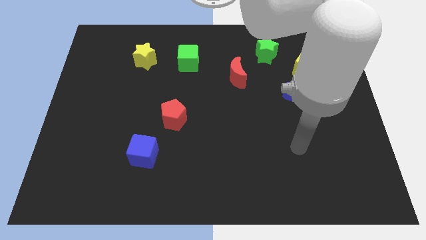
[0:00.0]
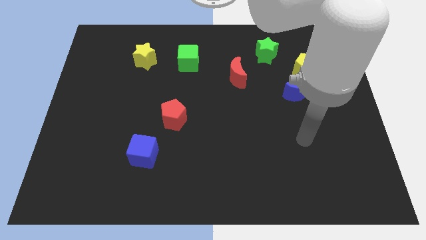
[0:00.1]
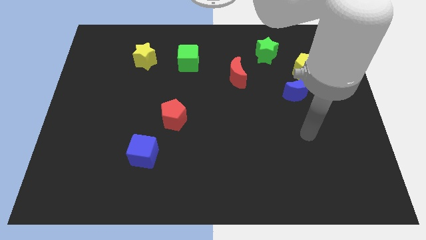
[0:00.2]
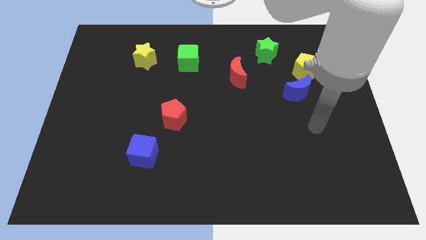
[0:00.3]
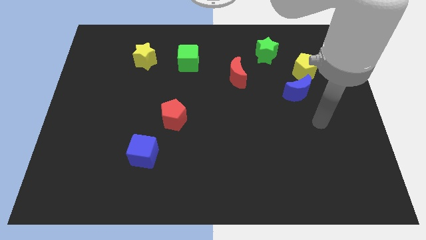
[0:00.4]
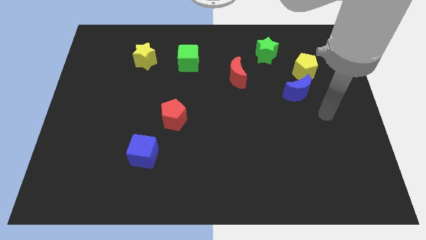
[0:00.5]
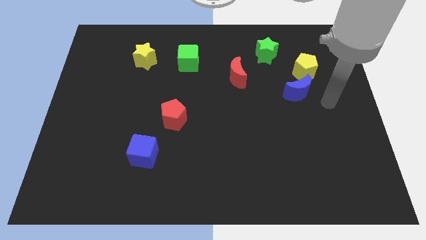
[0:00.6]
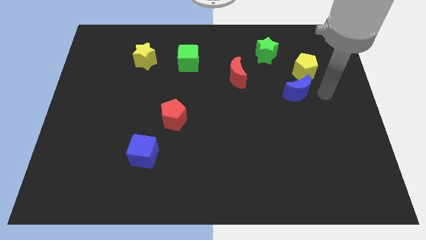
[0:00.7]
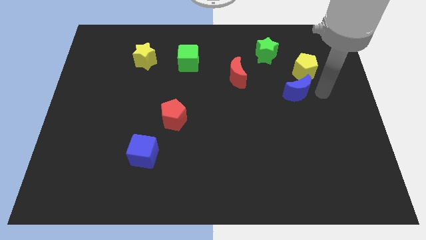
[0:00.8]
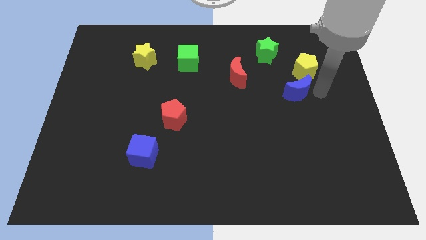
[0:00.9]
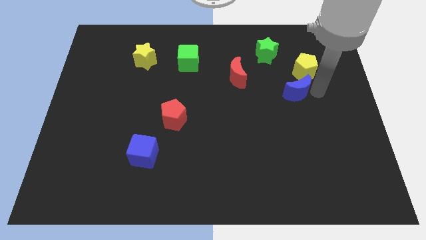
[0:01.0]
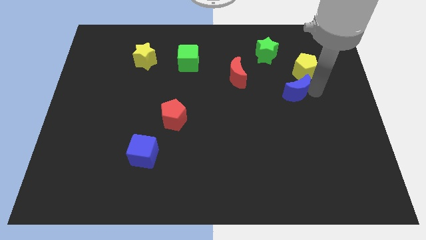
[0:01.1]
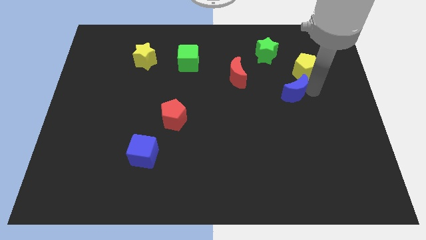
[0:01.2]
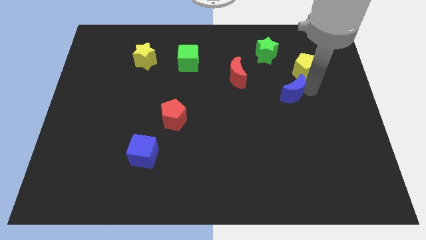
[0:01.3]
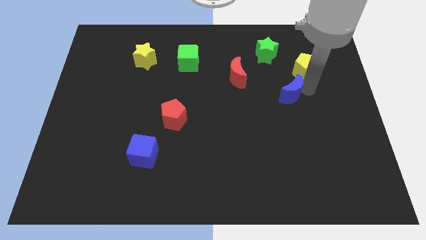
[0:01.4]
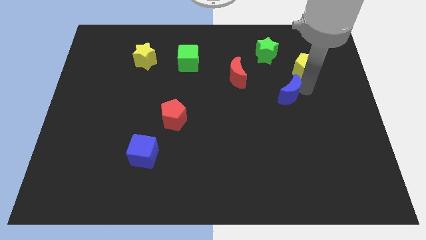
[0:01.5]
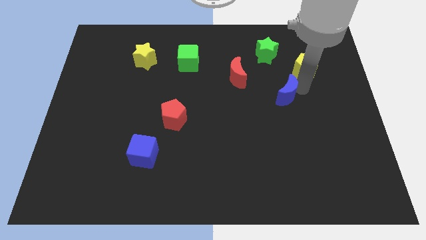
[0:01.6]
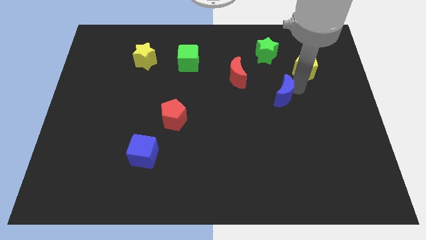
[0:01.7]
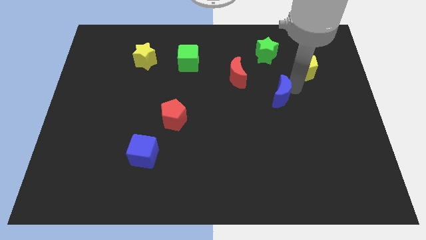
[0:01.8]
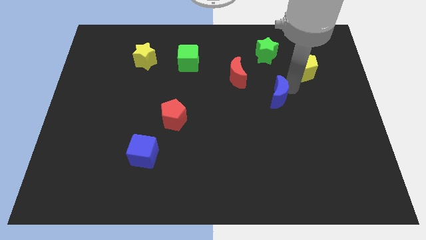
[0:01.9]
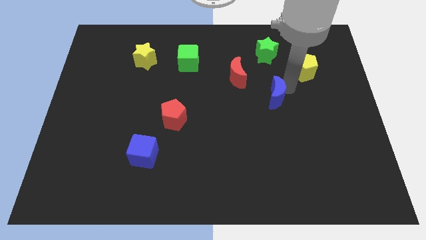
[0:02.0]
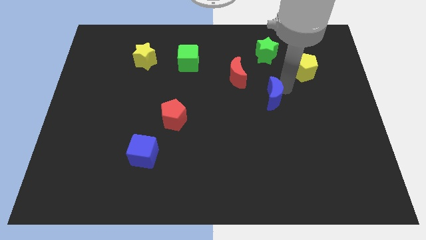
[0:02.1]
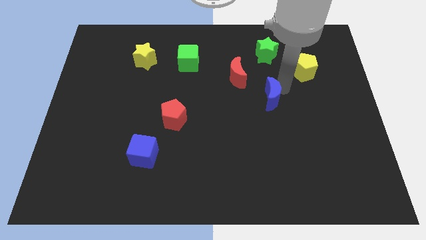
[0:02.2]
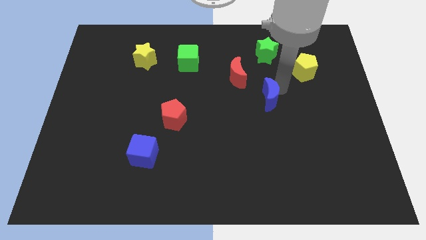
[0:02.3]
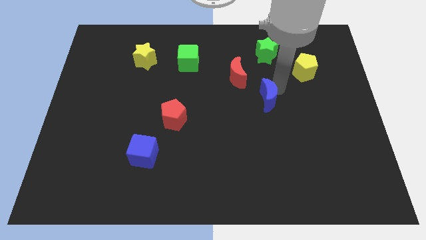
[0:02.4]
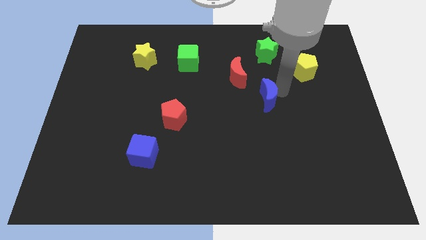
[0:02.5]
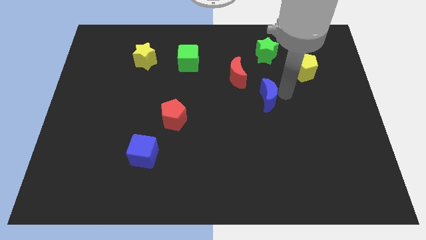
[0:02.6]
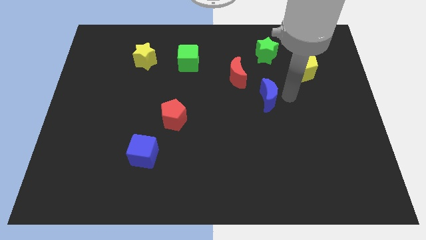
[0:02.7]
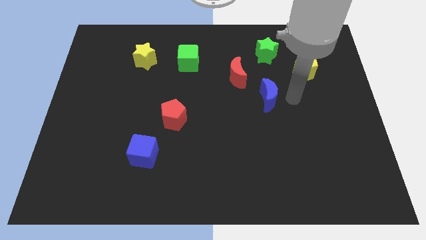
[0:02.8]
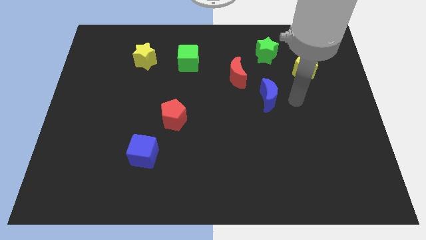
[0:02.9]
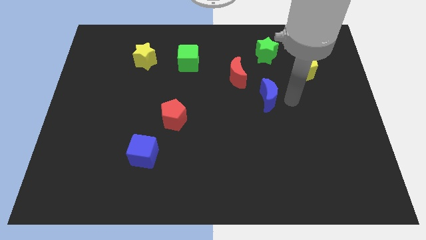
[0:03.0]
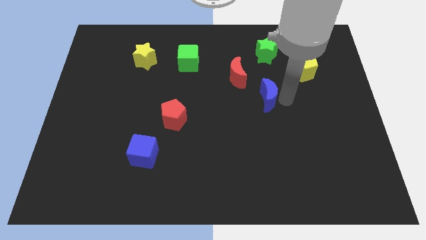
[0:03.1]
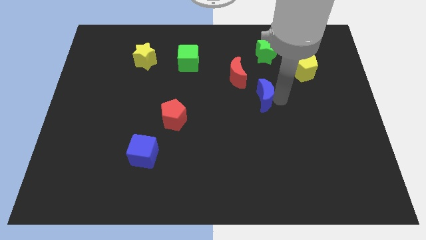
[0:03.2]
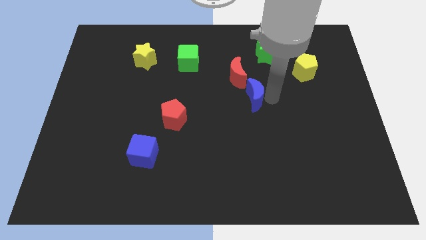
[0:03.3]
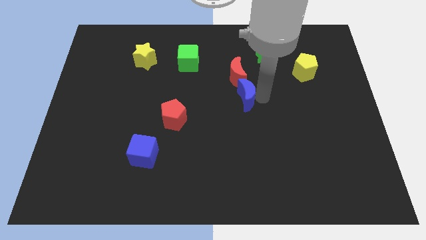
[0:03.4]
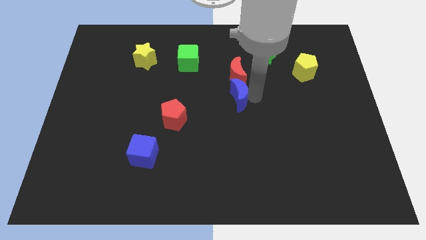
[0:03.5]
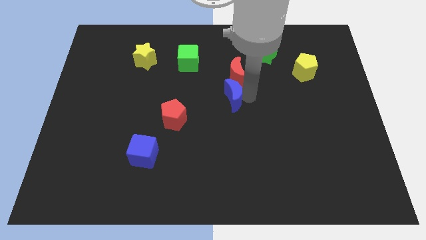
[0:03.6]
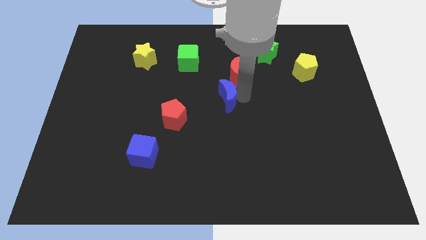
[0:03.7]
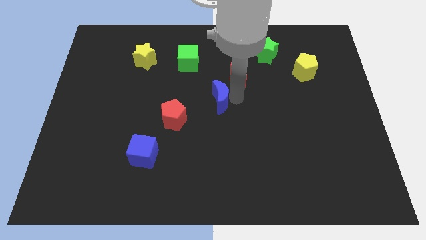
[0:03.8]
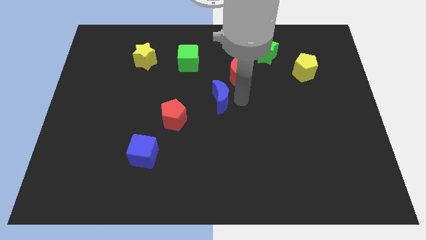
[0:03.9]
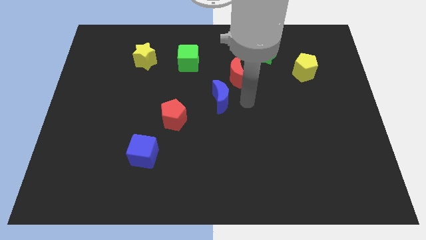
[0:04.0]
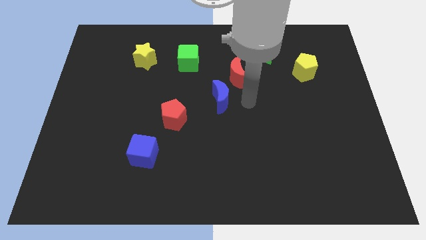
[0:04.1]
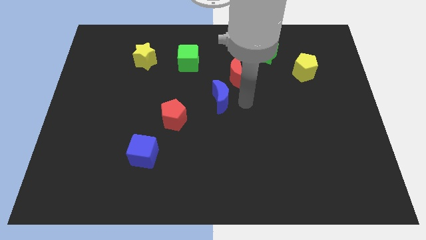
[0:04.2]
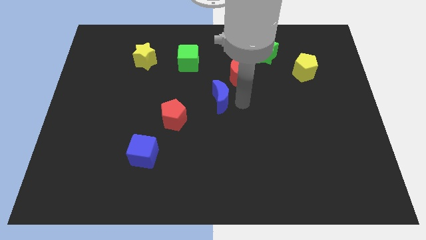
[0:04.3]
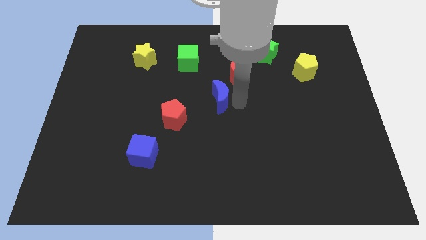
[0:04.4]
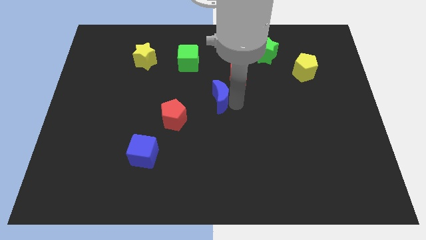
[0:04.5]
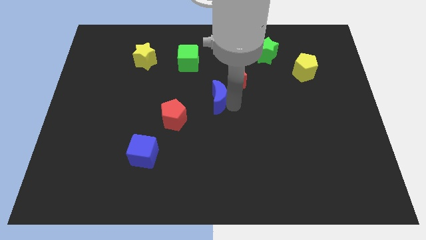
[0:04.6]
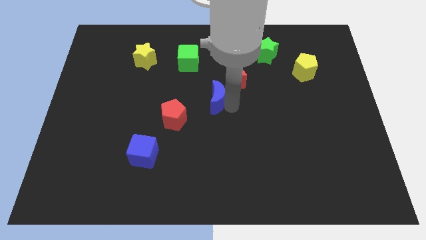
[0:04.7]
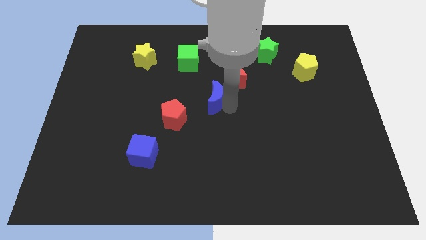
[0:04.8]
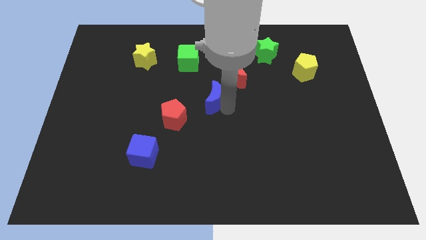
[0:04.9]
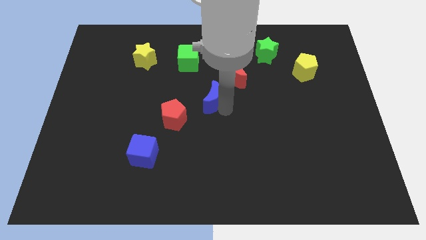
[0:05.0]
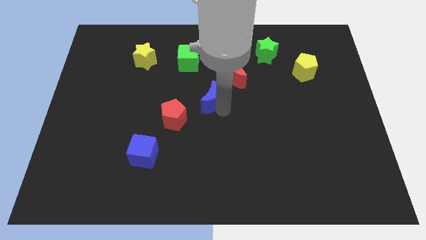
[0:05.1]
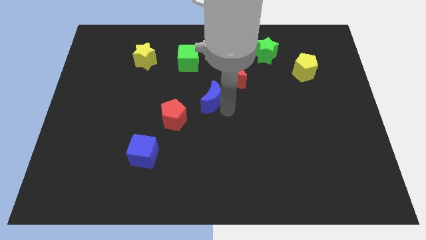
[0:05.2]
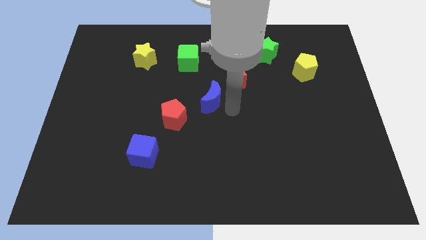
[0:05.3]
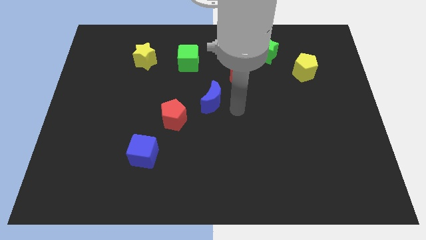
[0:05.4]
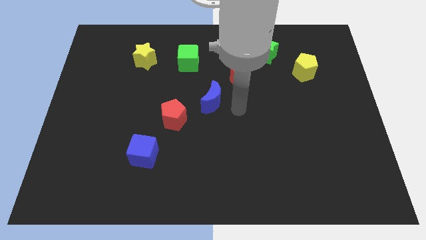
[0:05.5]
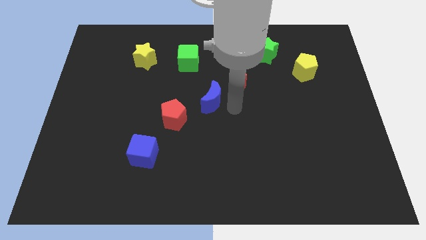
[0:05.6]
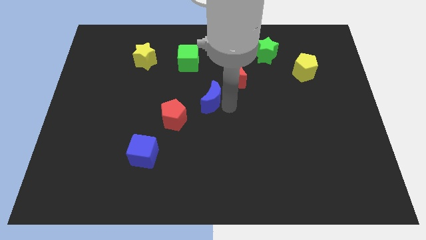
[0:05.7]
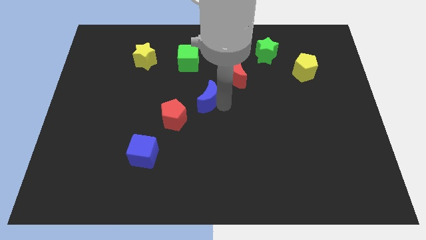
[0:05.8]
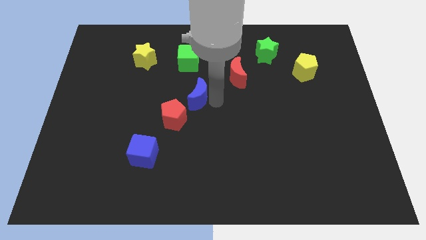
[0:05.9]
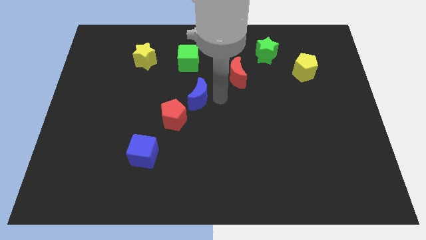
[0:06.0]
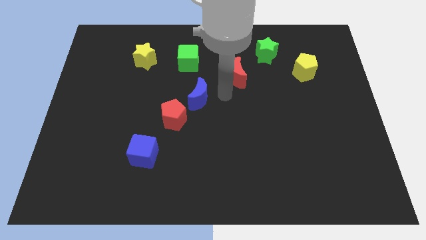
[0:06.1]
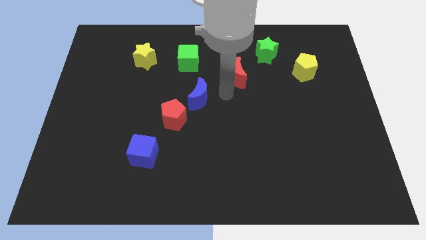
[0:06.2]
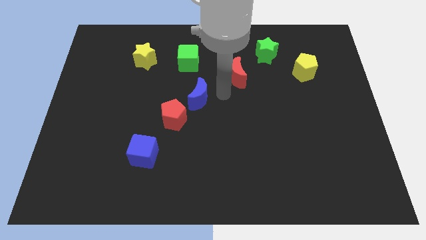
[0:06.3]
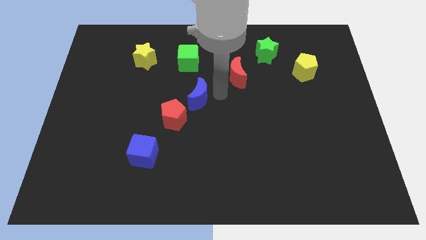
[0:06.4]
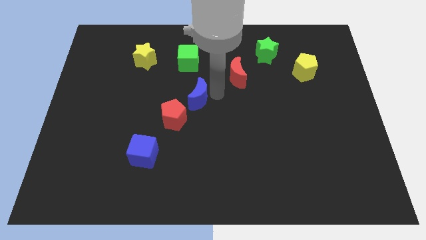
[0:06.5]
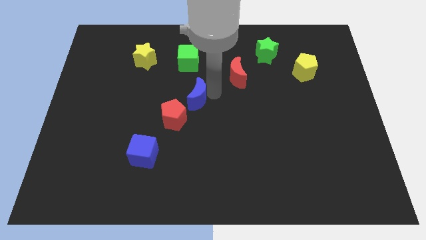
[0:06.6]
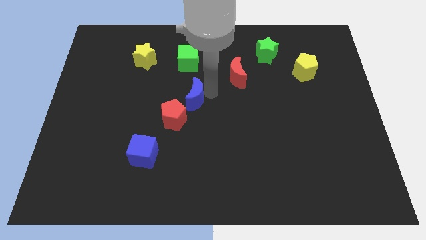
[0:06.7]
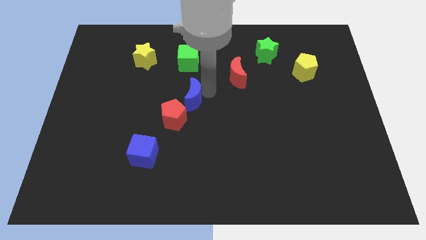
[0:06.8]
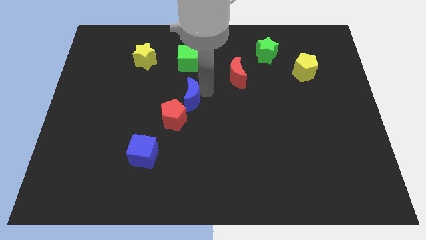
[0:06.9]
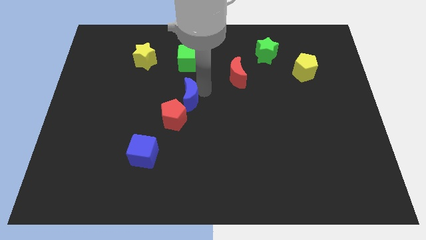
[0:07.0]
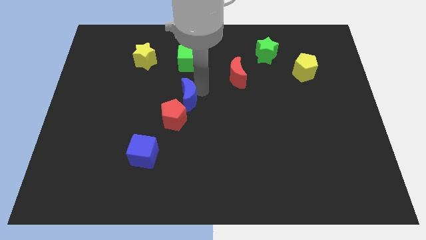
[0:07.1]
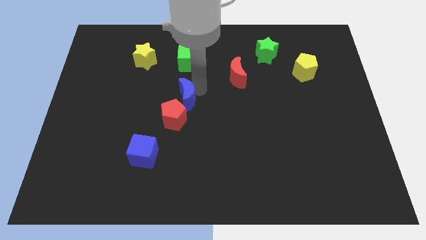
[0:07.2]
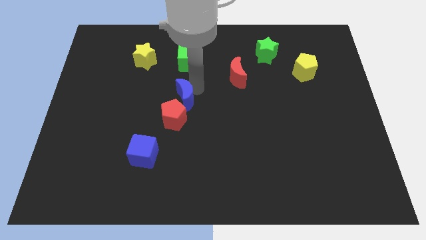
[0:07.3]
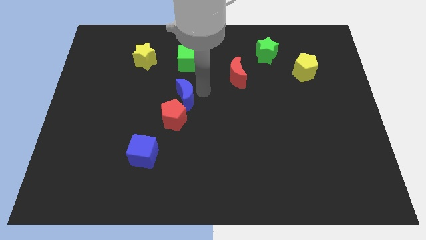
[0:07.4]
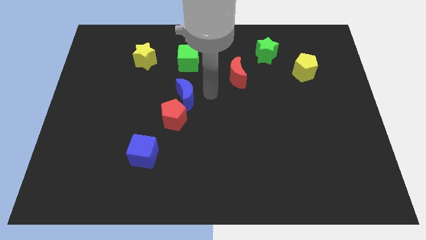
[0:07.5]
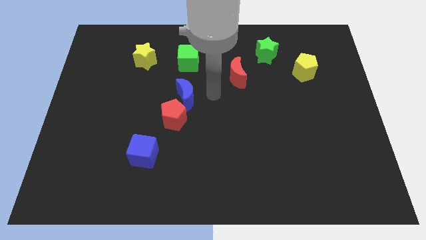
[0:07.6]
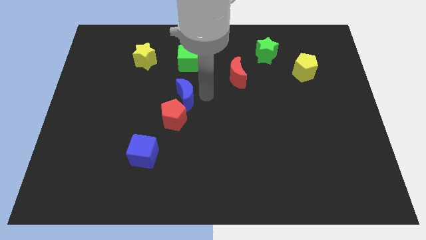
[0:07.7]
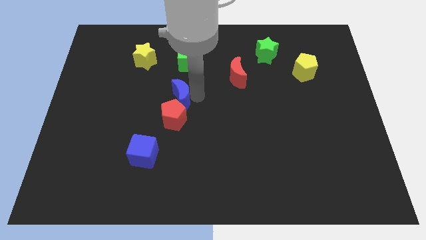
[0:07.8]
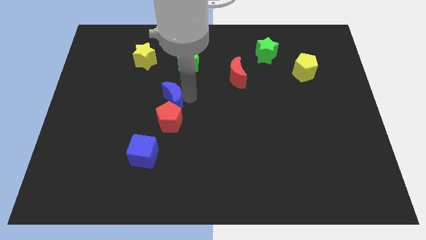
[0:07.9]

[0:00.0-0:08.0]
push the blue moon to the top left side of the red pentagon
